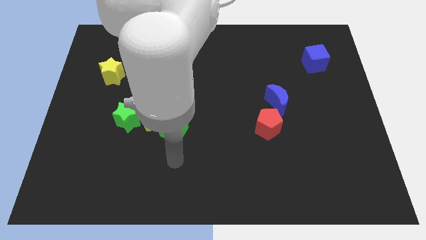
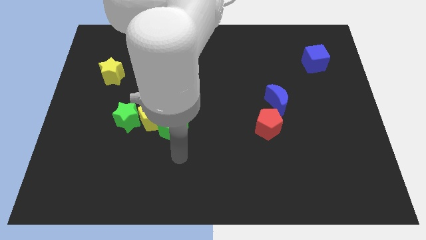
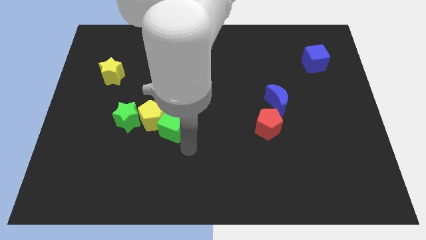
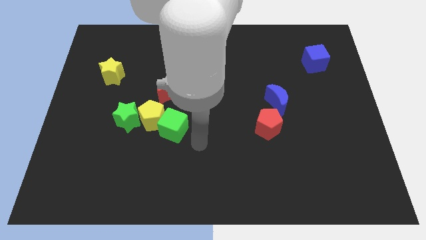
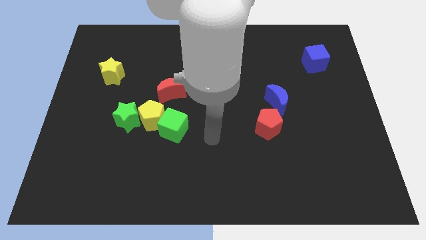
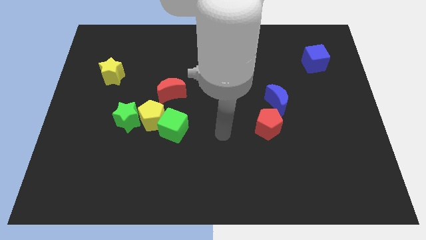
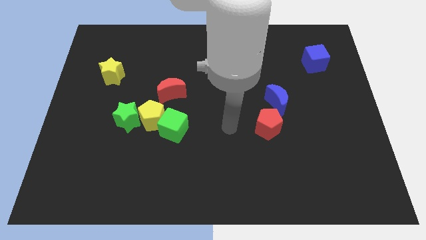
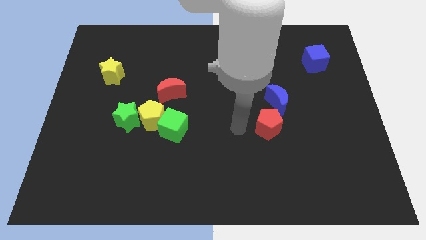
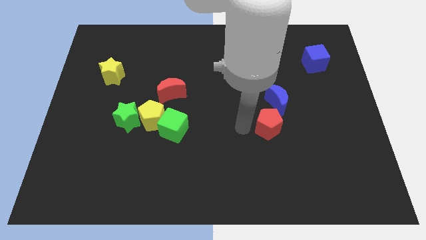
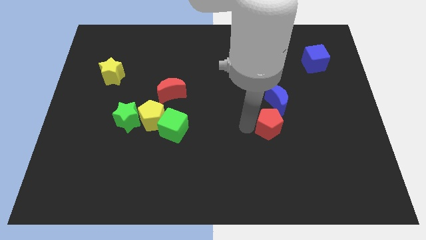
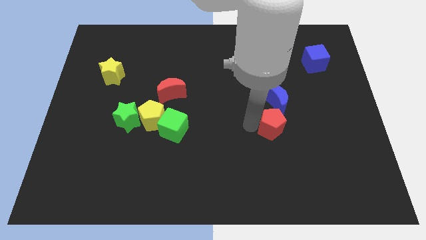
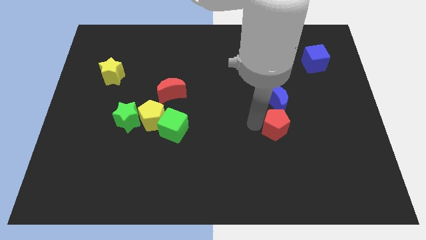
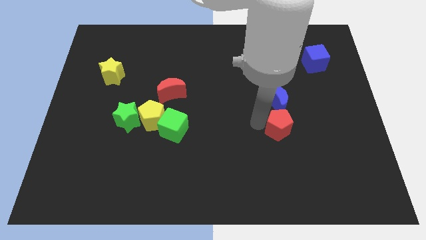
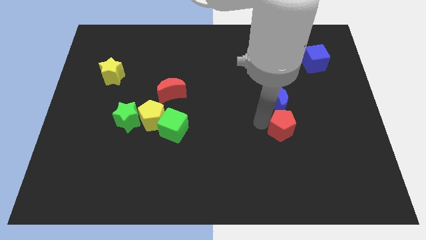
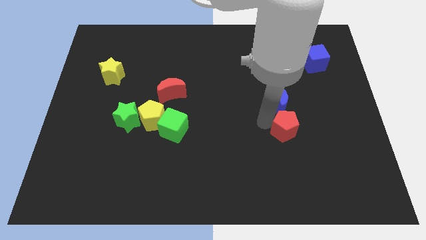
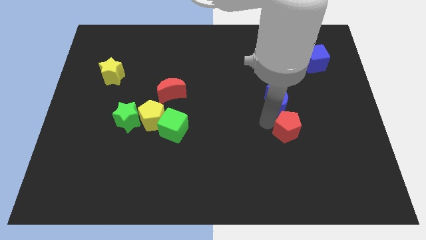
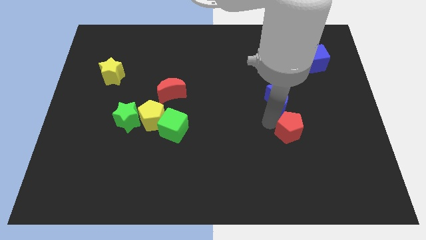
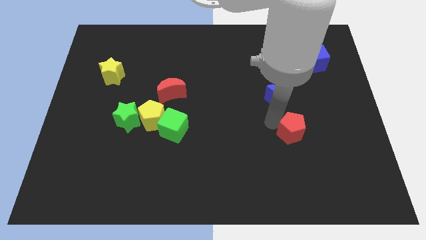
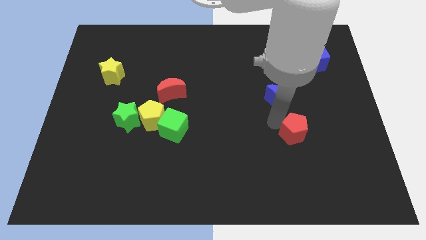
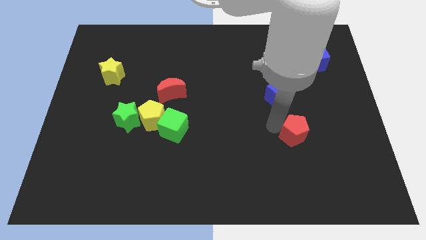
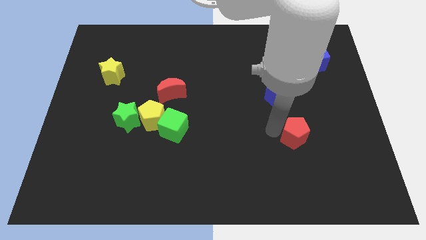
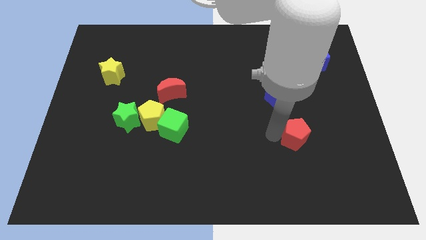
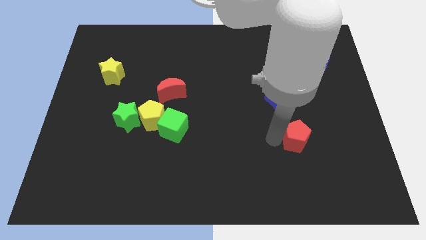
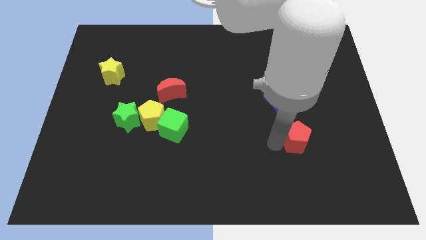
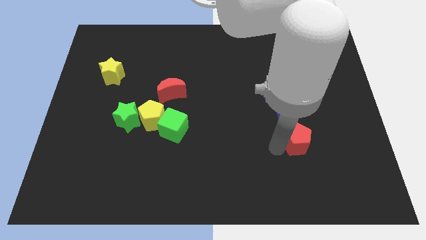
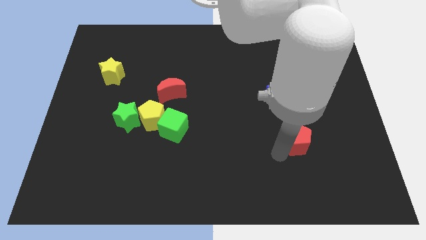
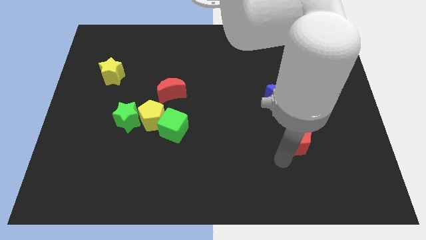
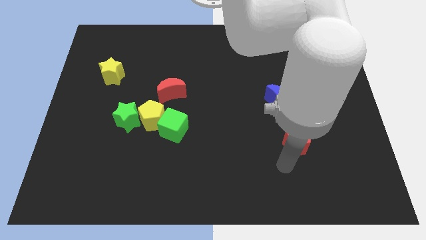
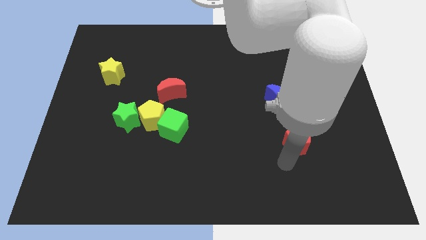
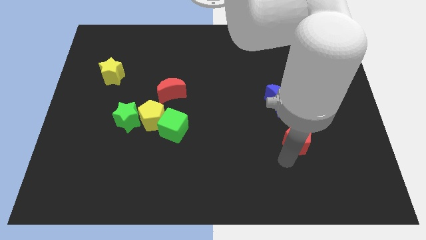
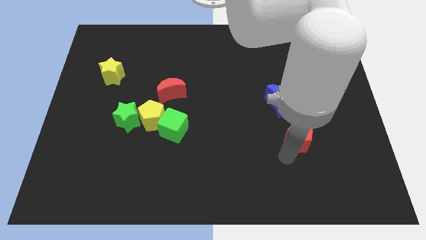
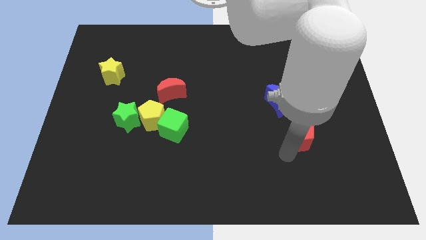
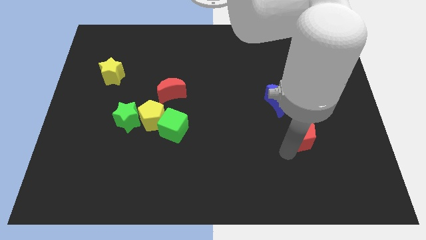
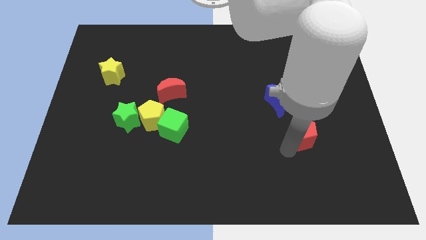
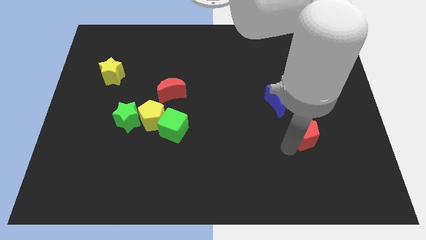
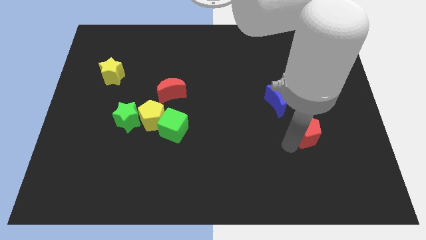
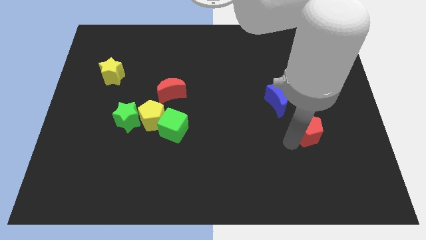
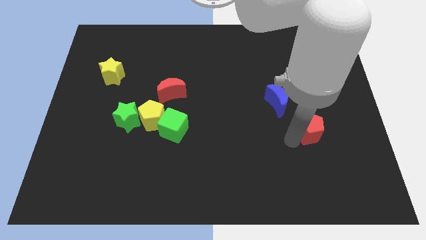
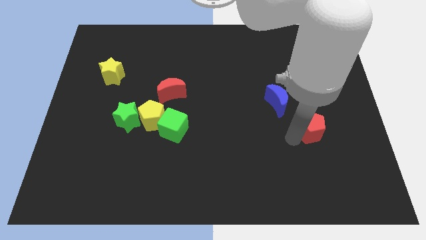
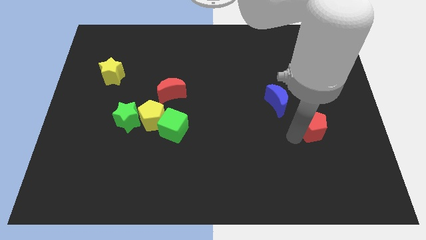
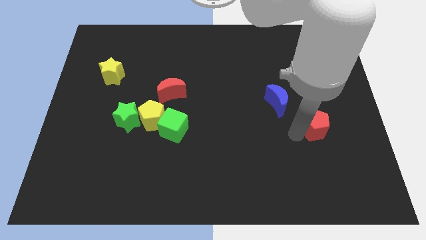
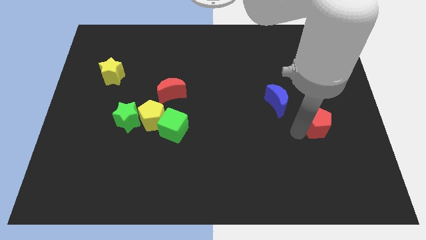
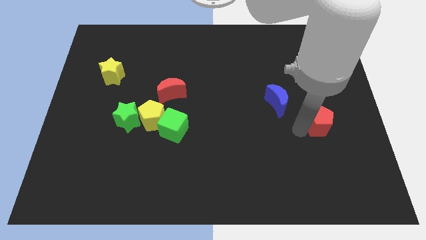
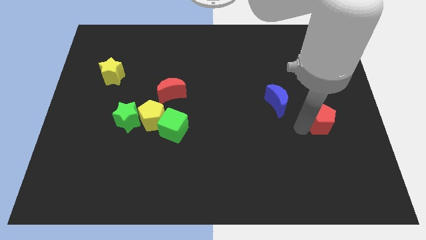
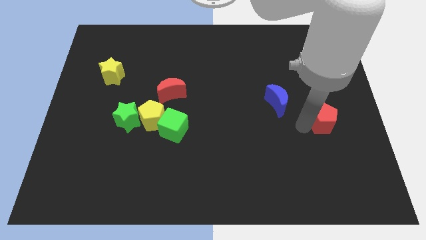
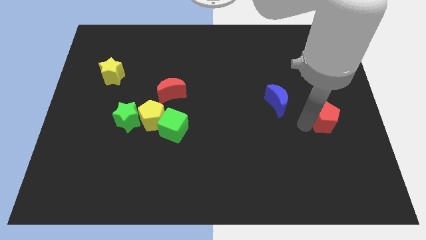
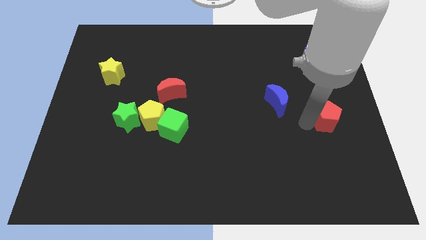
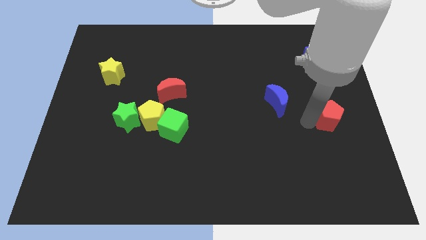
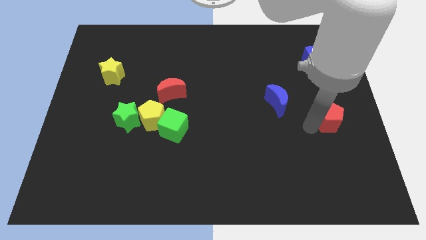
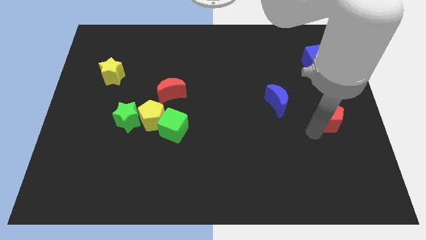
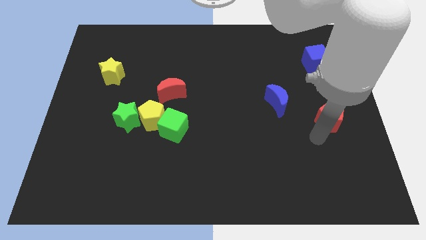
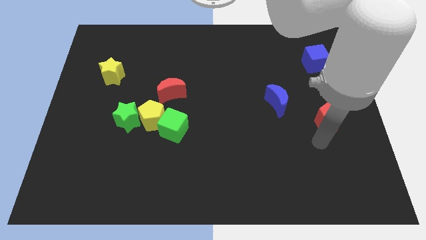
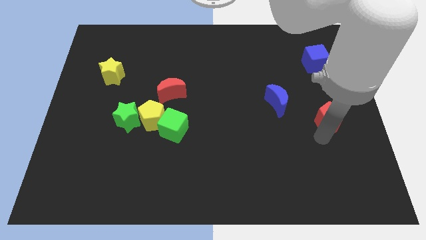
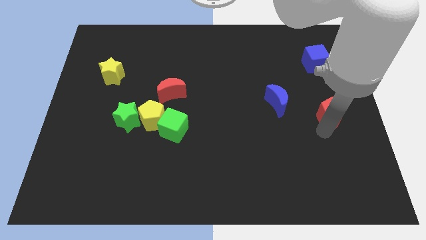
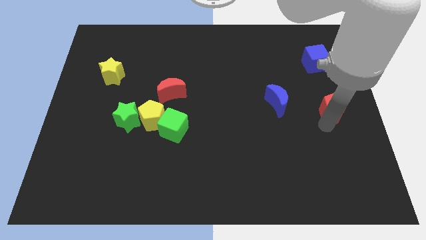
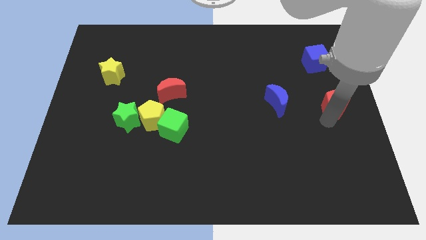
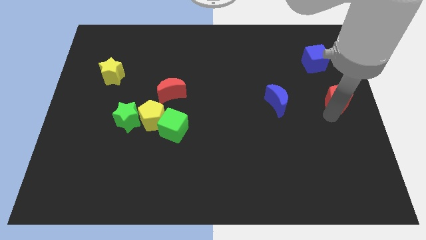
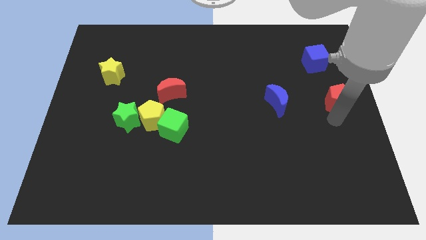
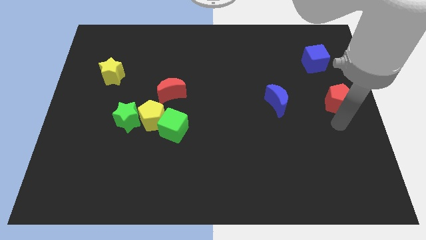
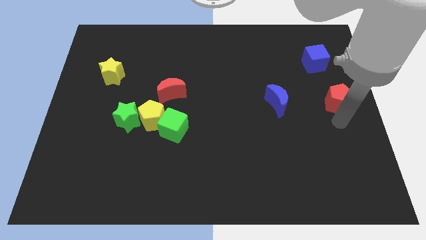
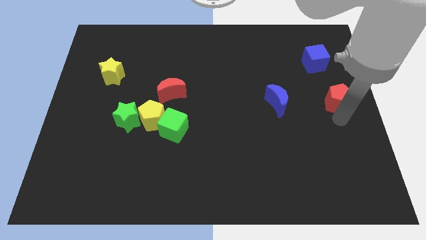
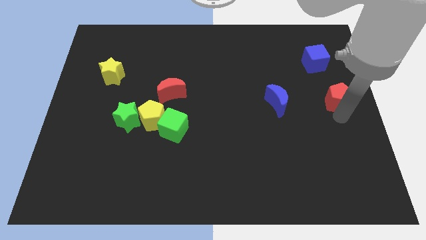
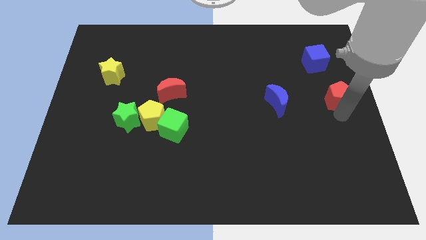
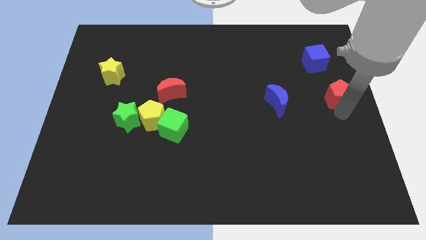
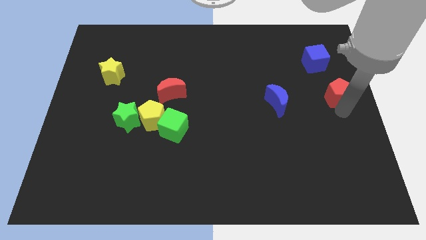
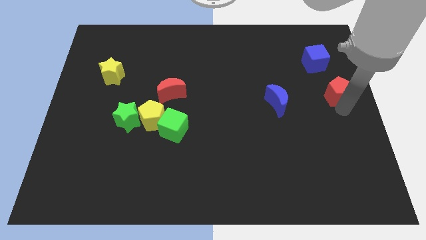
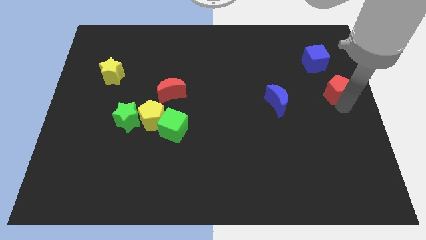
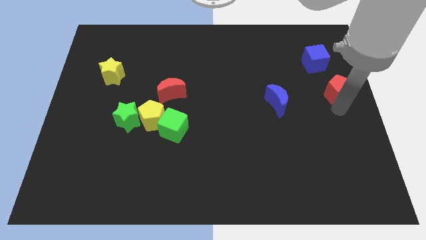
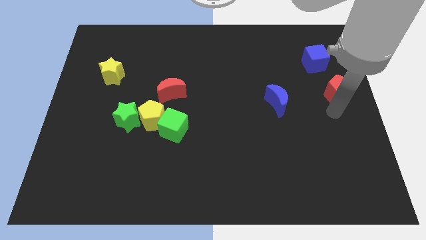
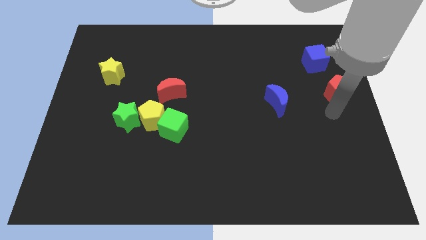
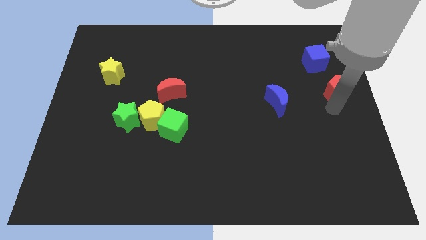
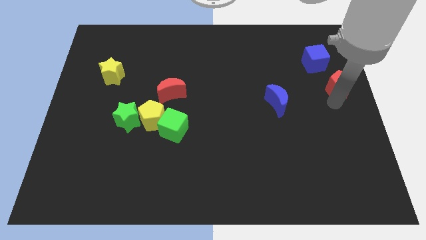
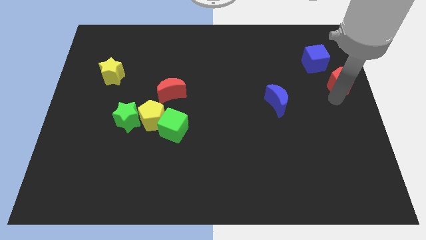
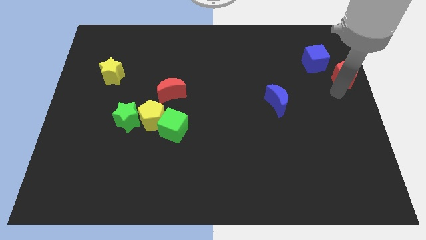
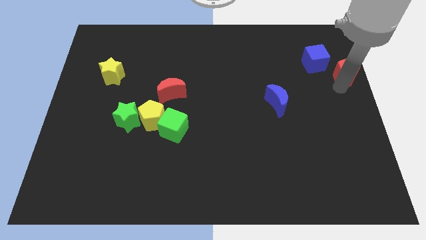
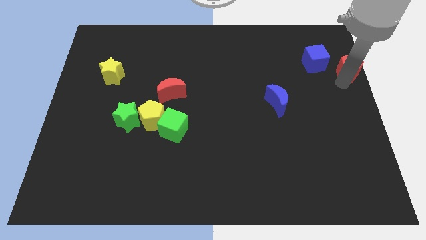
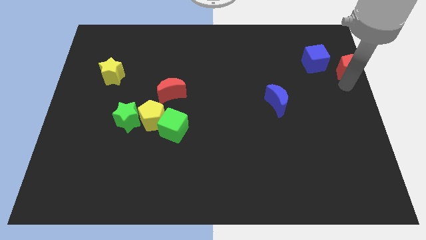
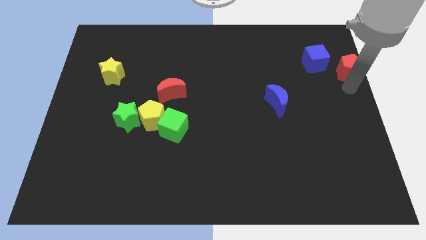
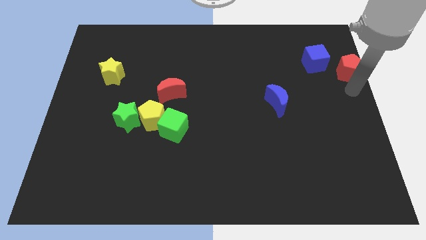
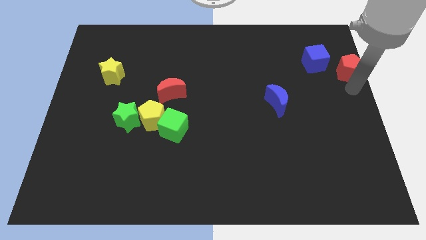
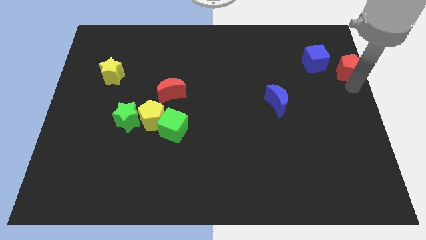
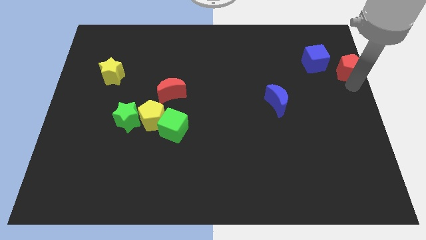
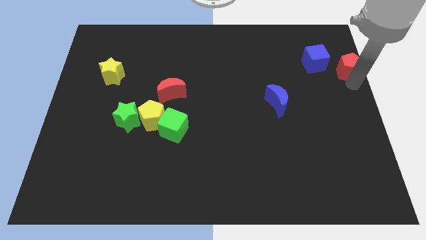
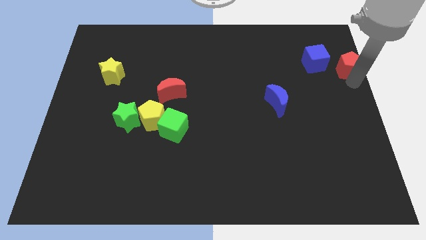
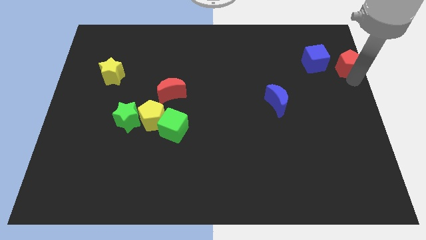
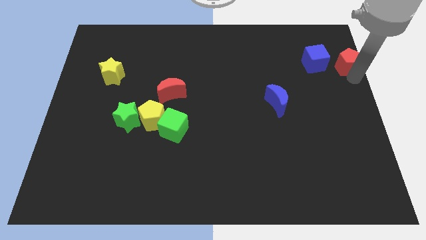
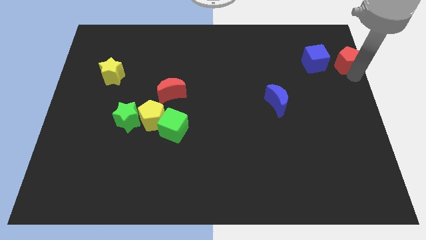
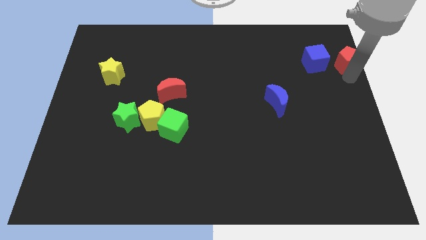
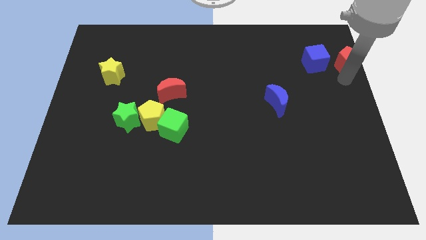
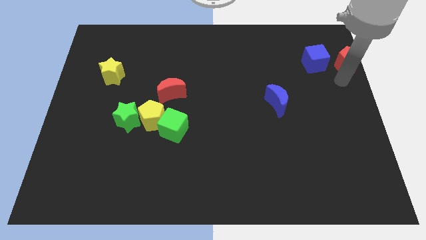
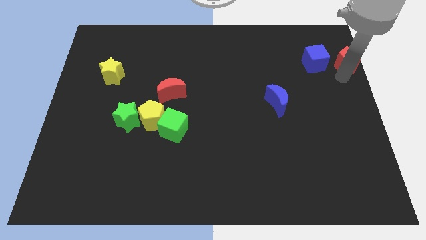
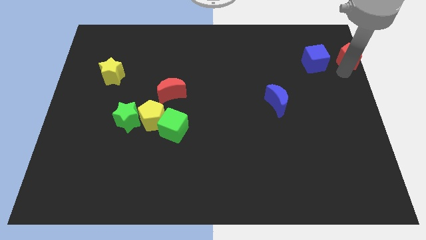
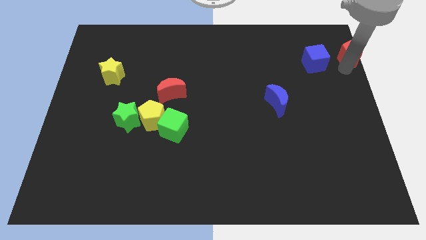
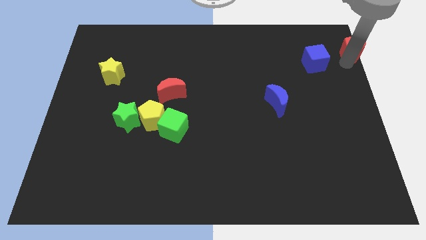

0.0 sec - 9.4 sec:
move the red pentagon to the upper right corner
